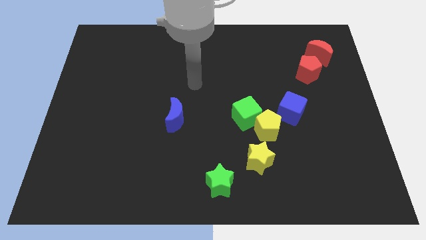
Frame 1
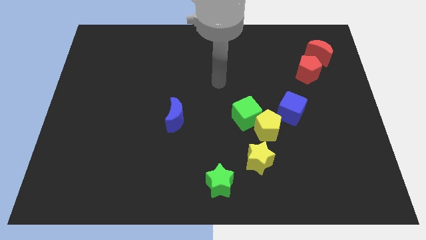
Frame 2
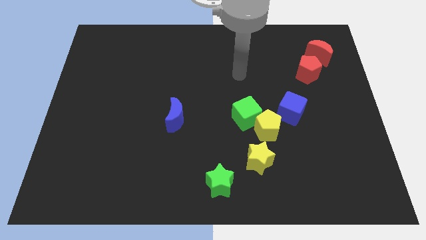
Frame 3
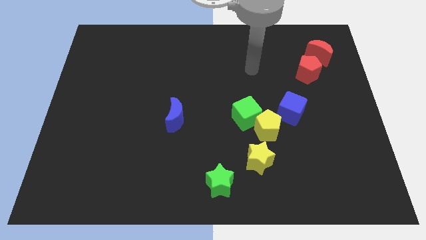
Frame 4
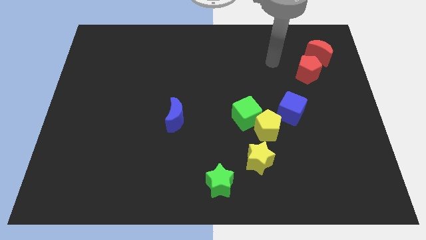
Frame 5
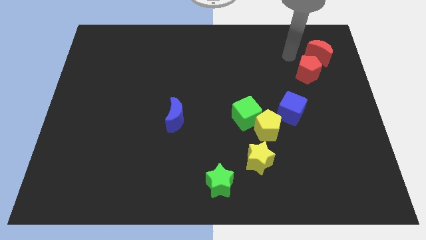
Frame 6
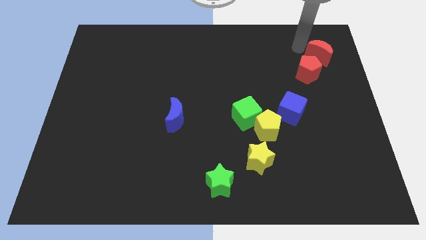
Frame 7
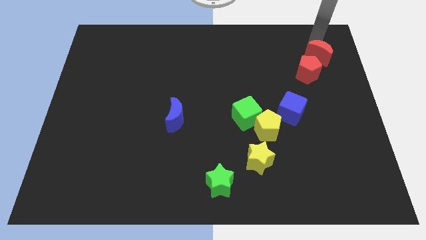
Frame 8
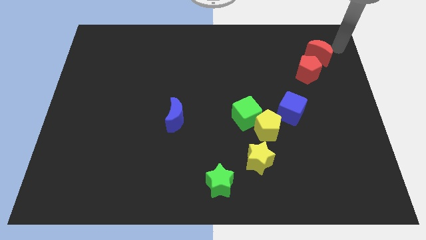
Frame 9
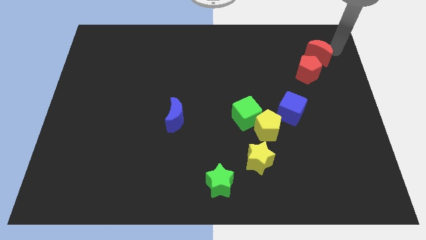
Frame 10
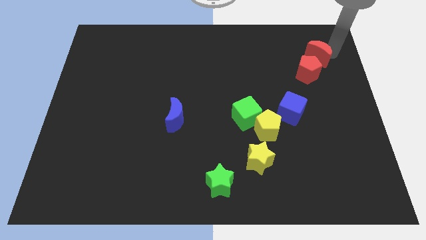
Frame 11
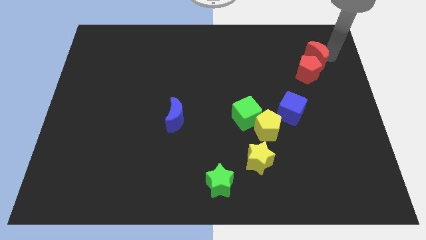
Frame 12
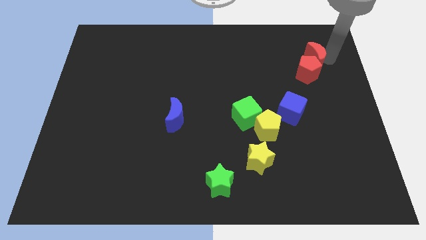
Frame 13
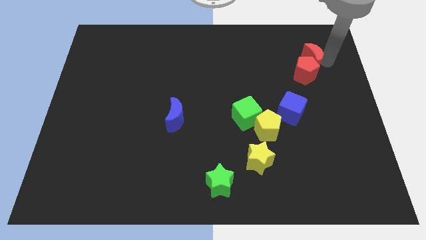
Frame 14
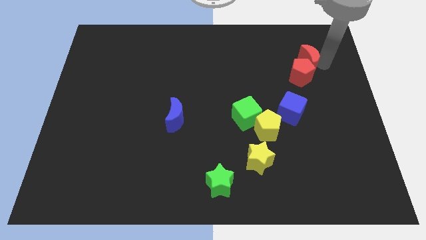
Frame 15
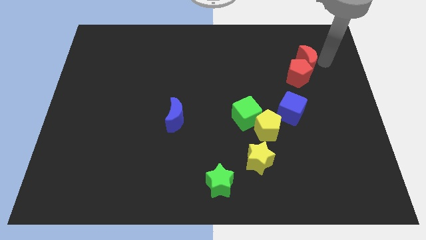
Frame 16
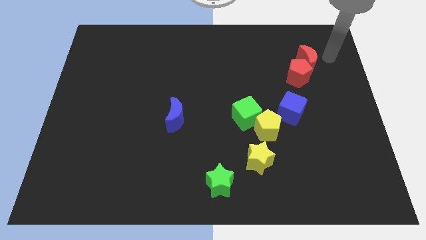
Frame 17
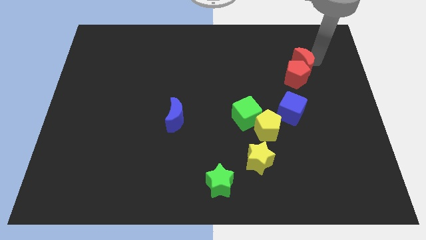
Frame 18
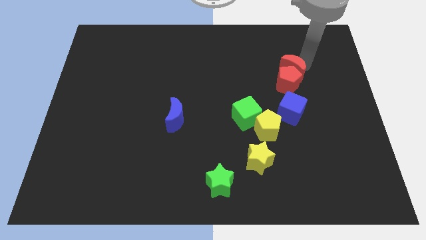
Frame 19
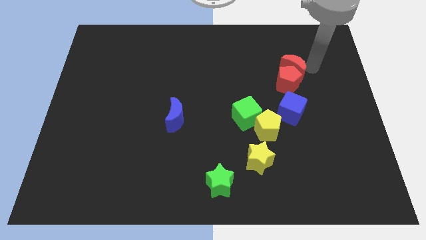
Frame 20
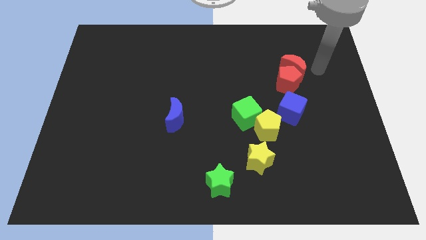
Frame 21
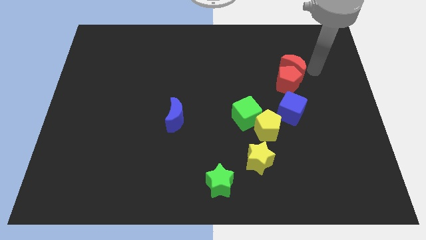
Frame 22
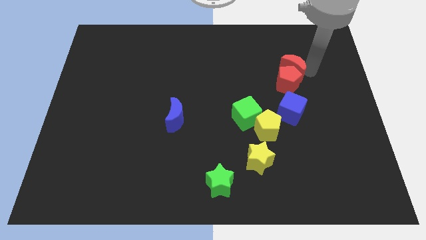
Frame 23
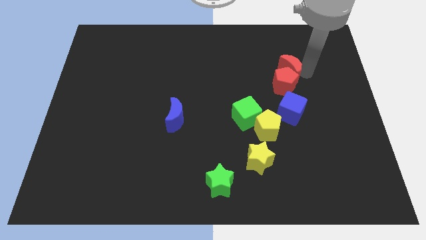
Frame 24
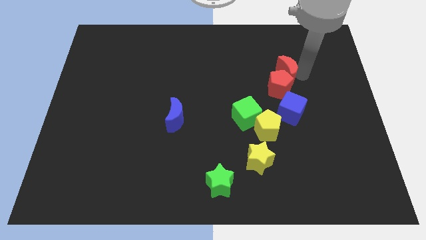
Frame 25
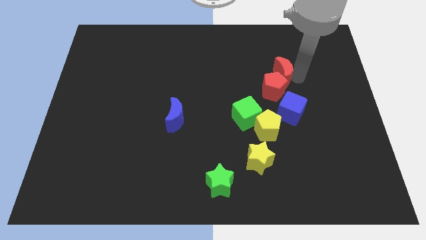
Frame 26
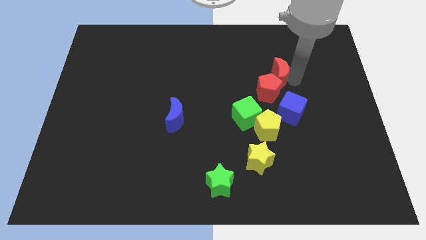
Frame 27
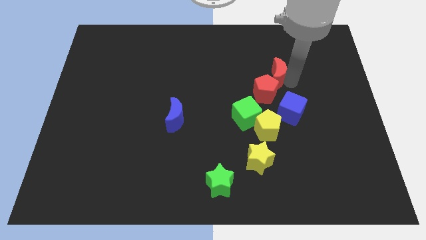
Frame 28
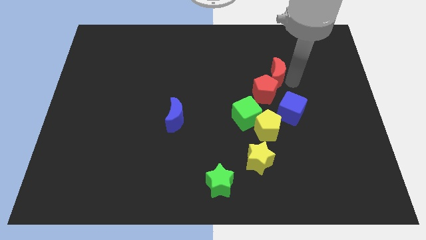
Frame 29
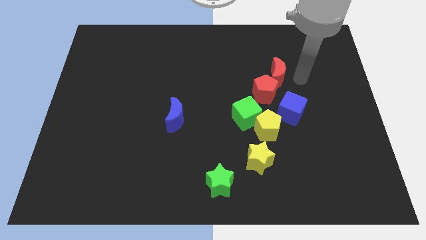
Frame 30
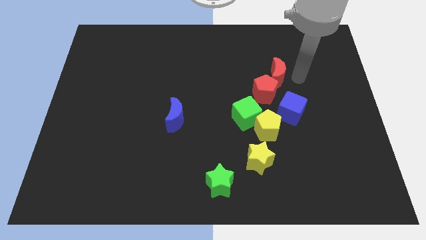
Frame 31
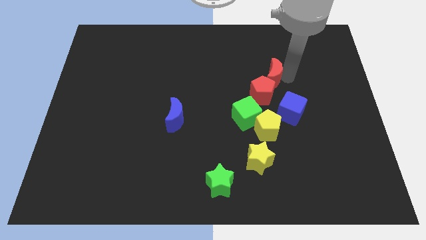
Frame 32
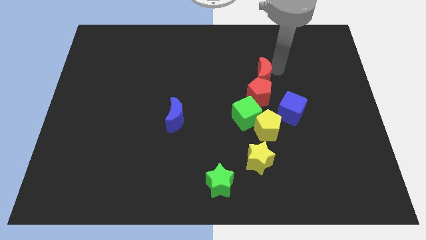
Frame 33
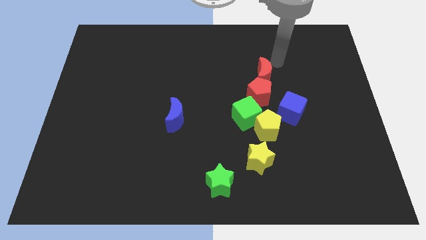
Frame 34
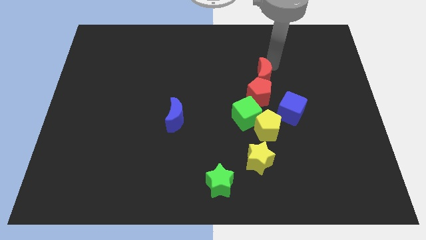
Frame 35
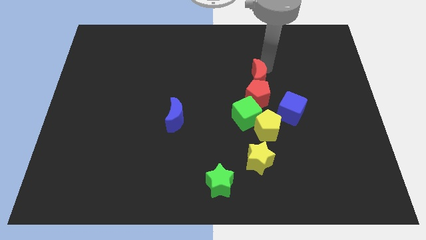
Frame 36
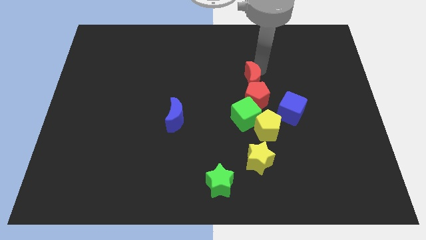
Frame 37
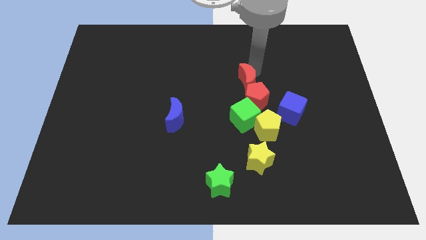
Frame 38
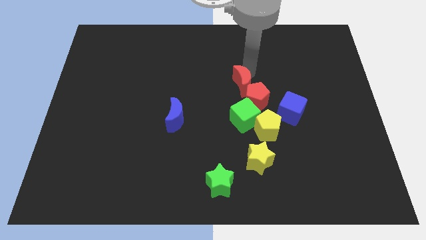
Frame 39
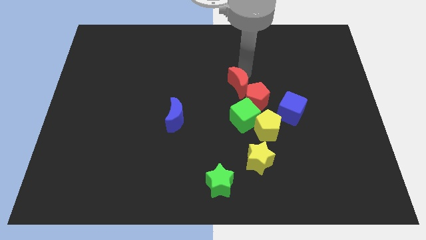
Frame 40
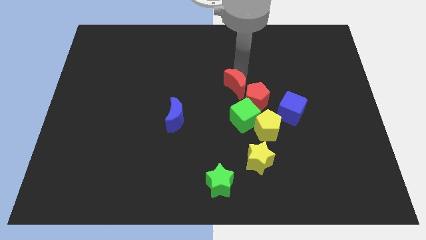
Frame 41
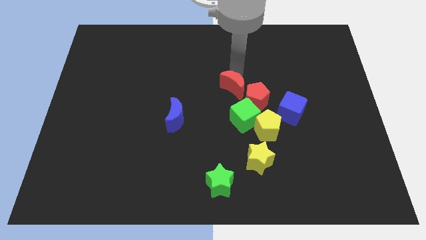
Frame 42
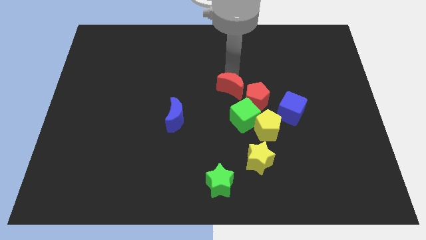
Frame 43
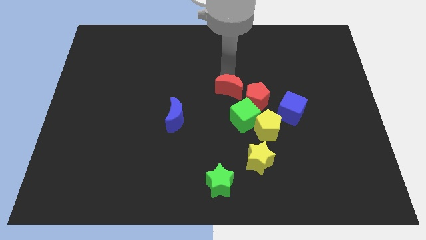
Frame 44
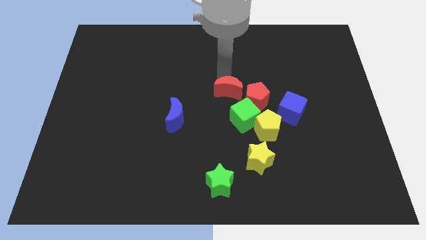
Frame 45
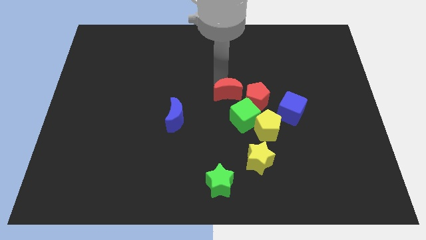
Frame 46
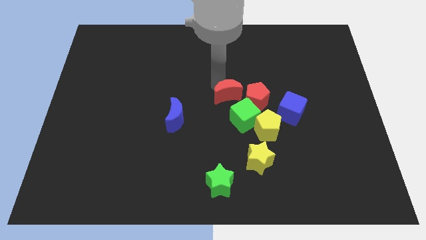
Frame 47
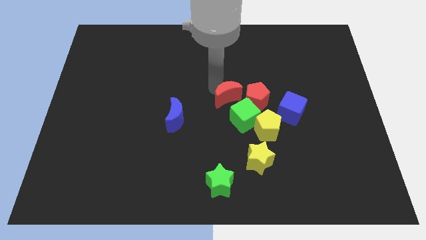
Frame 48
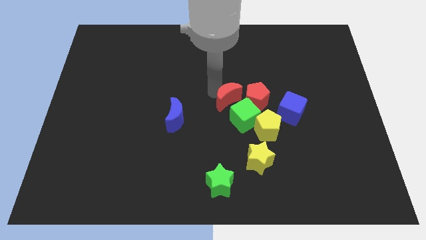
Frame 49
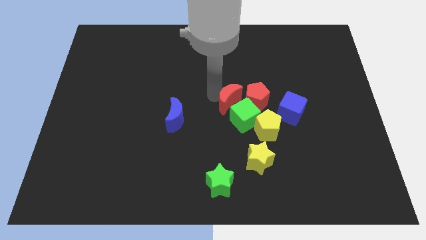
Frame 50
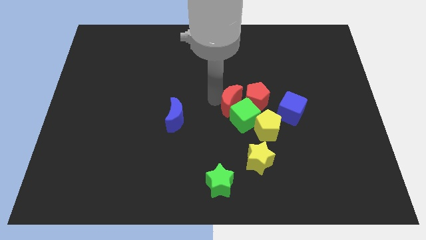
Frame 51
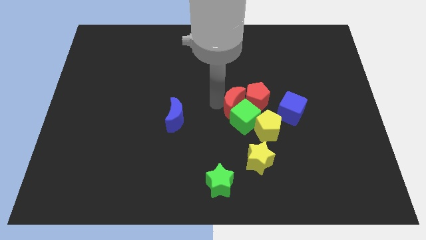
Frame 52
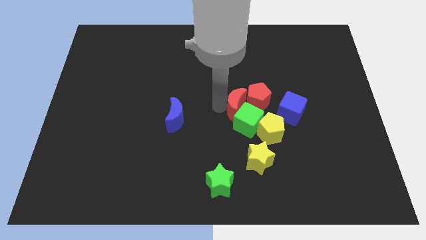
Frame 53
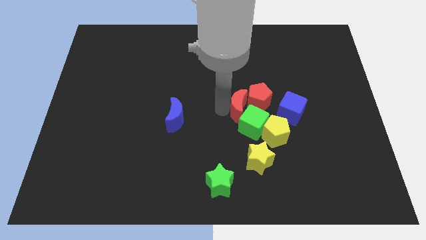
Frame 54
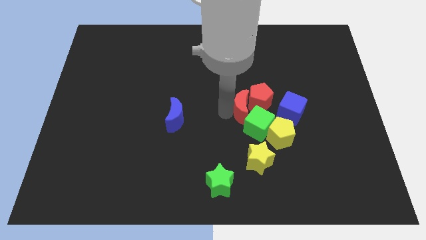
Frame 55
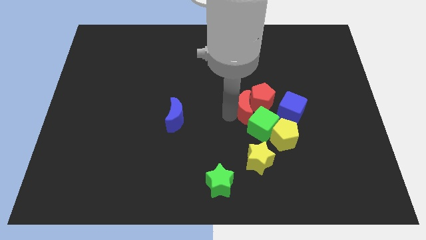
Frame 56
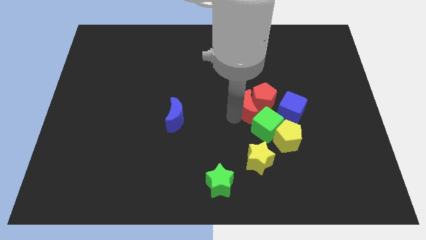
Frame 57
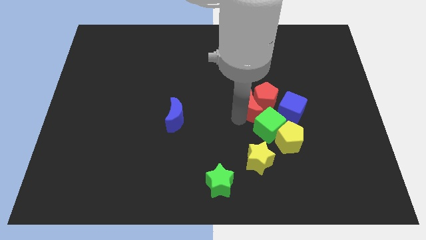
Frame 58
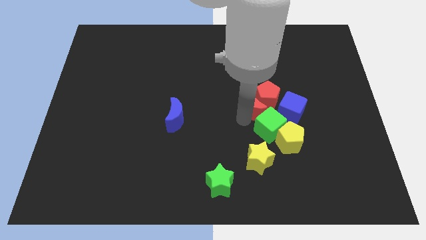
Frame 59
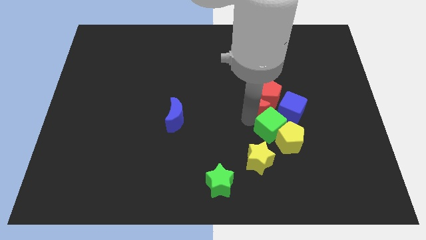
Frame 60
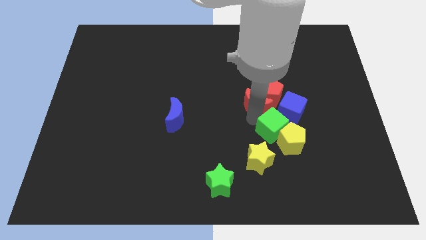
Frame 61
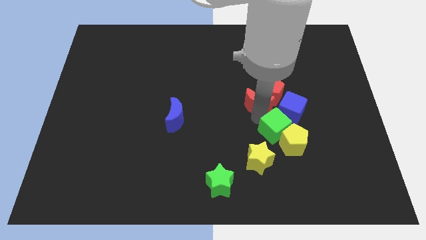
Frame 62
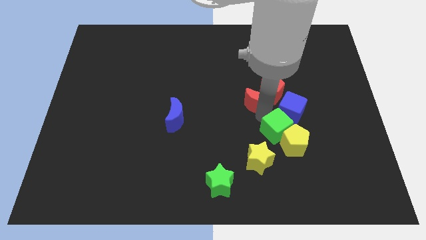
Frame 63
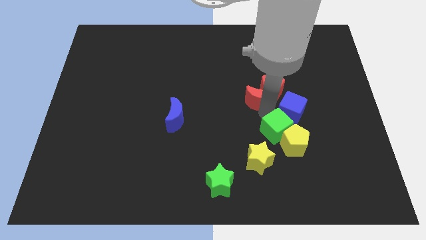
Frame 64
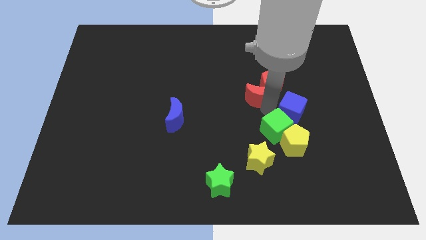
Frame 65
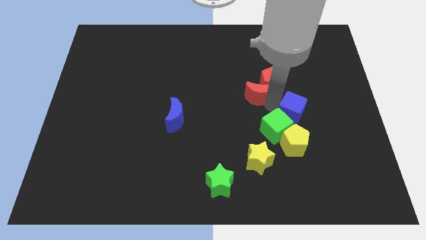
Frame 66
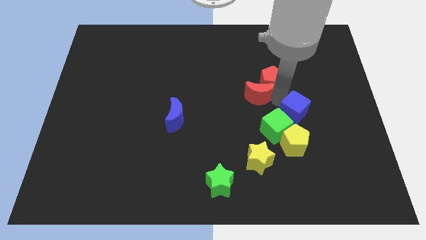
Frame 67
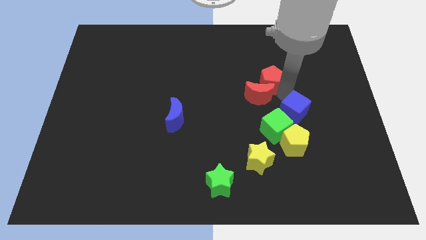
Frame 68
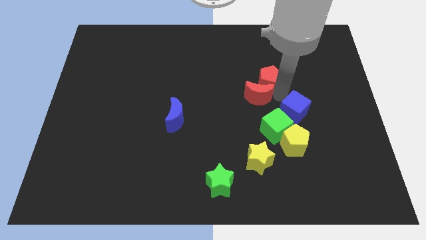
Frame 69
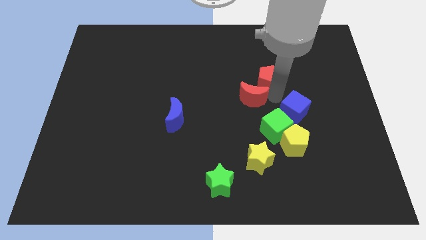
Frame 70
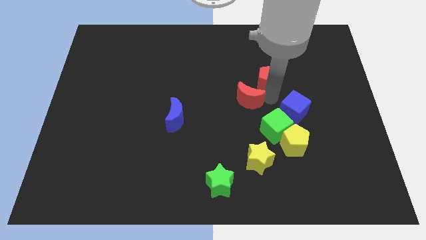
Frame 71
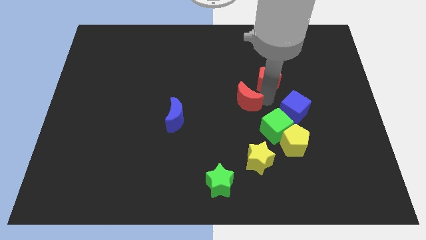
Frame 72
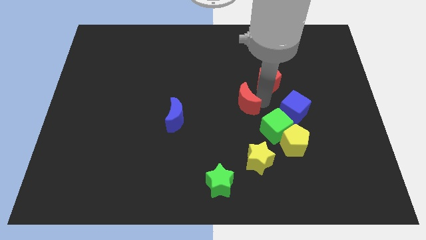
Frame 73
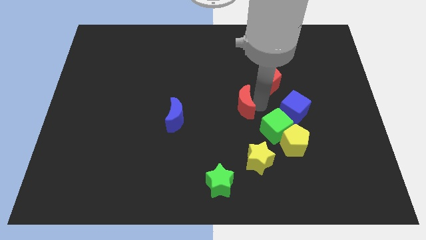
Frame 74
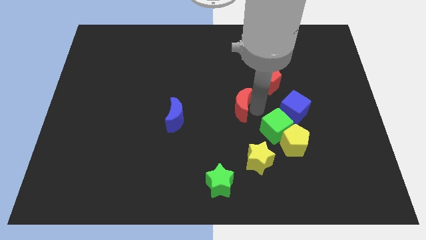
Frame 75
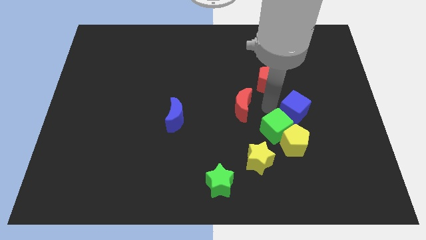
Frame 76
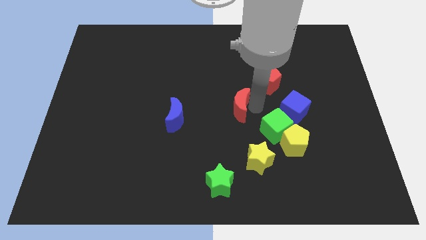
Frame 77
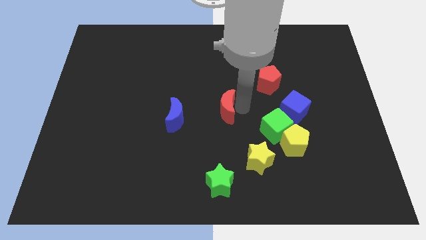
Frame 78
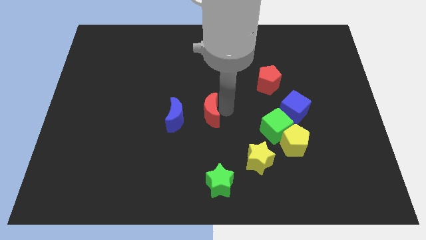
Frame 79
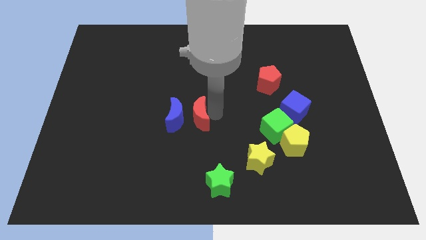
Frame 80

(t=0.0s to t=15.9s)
slide the red moon close to the blue moon

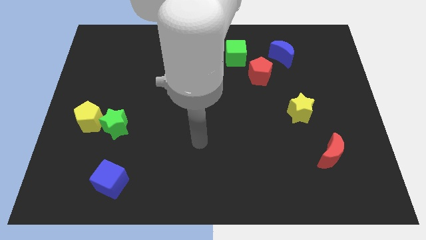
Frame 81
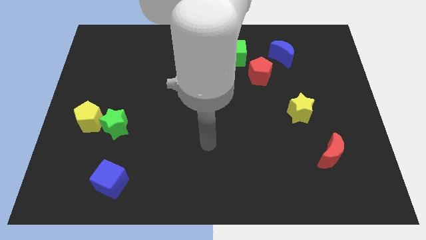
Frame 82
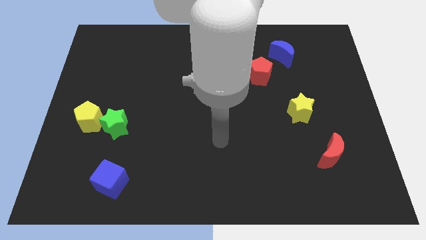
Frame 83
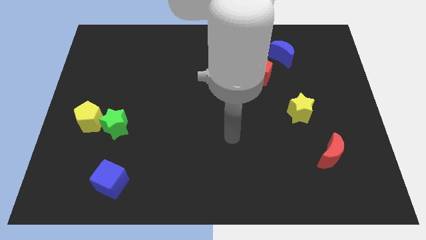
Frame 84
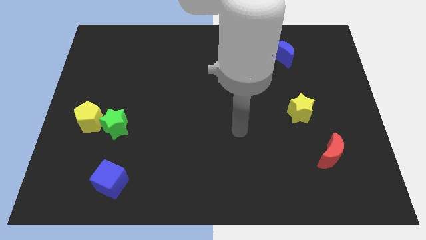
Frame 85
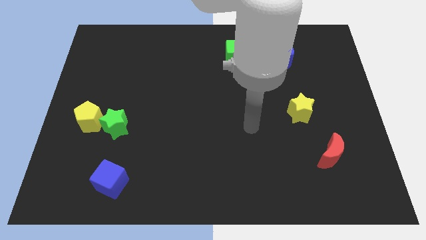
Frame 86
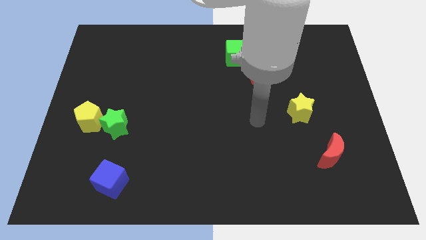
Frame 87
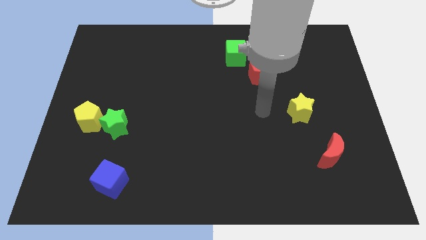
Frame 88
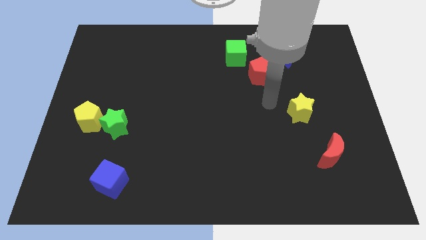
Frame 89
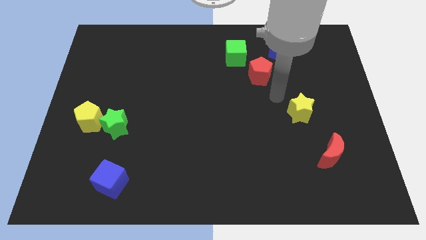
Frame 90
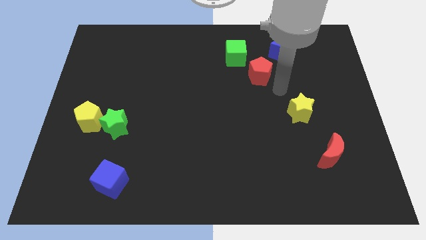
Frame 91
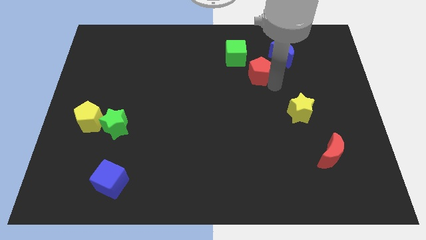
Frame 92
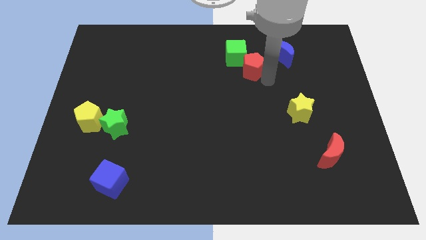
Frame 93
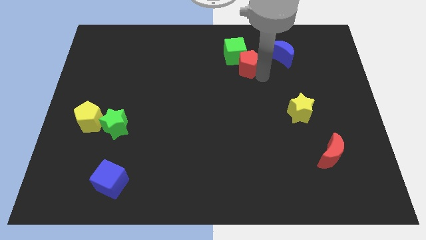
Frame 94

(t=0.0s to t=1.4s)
slide the red pentagon close to the green cube
